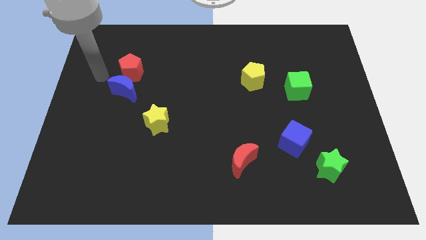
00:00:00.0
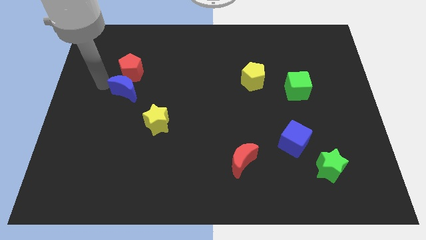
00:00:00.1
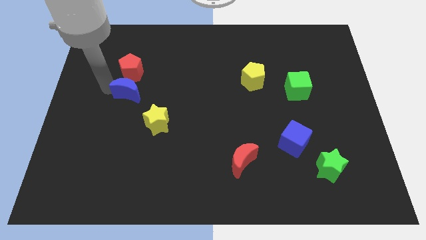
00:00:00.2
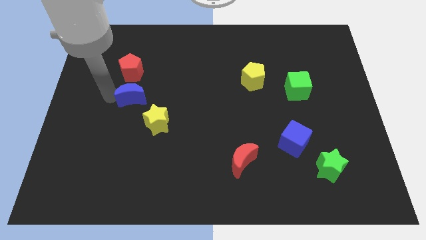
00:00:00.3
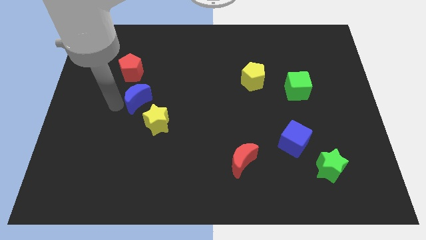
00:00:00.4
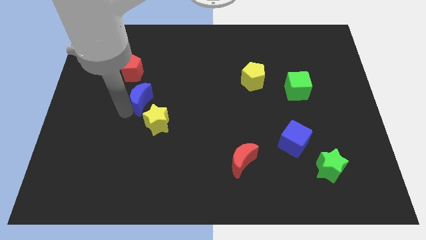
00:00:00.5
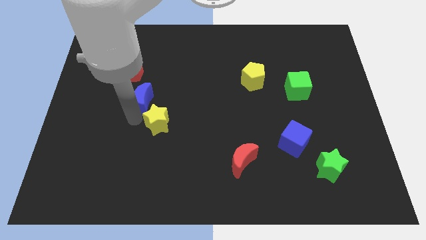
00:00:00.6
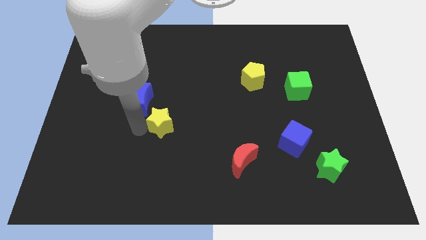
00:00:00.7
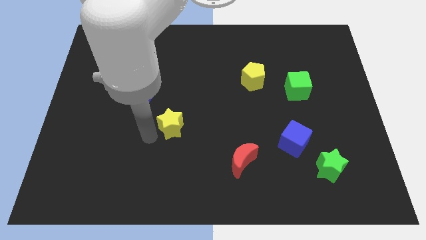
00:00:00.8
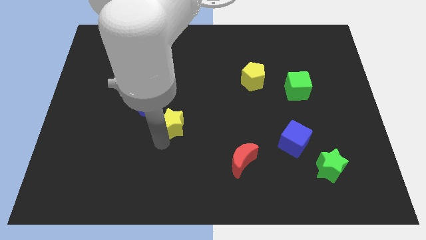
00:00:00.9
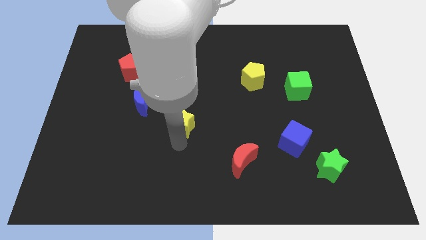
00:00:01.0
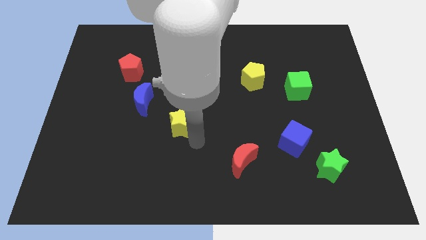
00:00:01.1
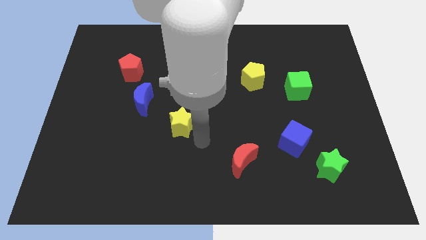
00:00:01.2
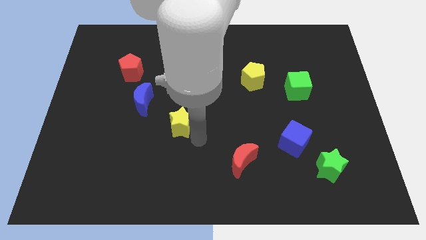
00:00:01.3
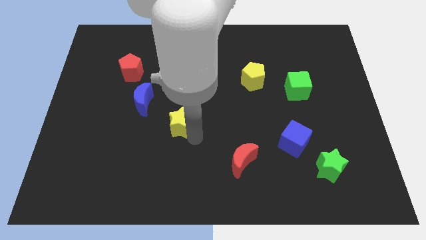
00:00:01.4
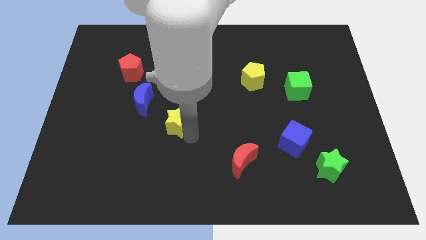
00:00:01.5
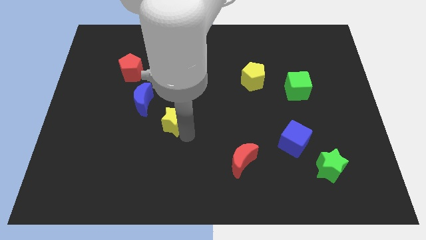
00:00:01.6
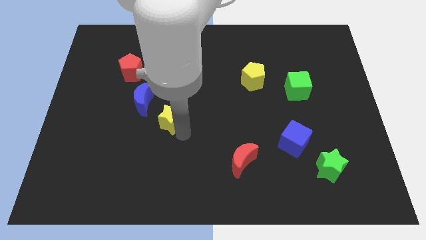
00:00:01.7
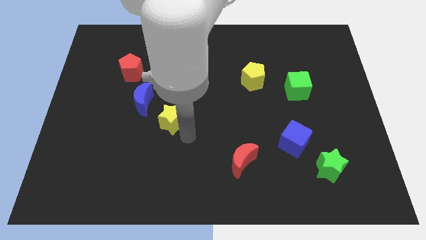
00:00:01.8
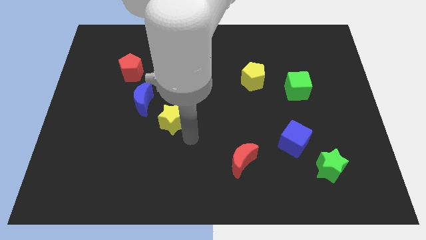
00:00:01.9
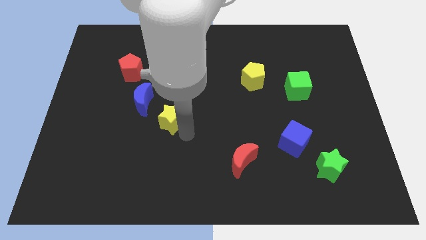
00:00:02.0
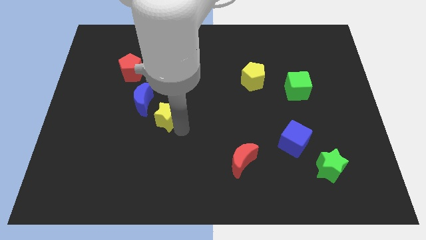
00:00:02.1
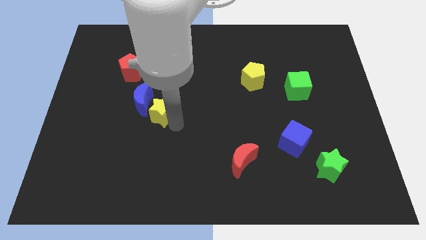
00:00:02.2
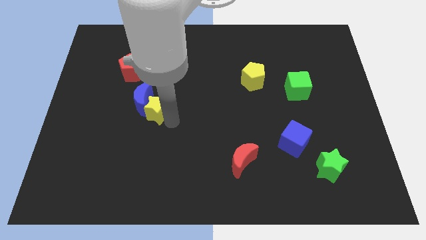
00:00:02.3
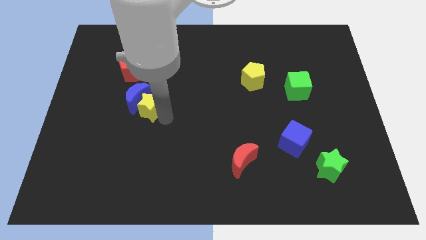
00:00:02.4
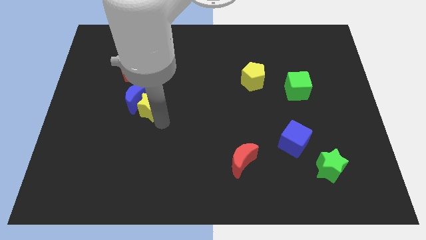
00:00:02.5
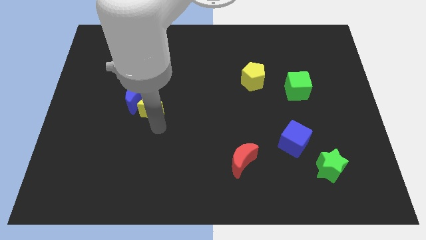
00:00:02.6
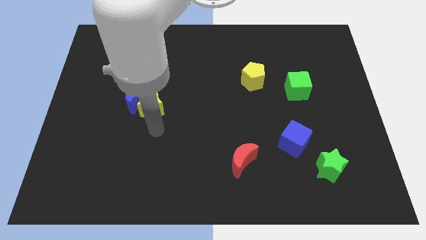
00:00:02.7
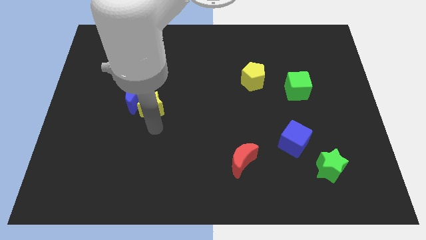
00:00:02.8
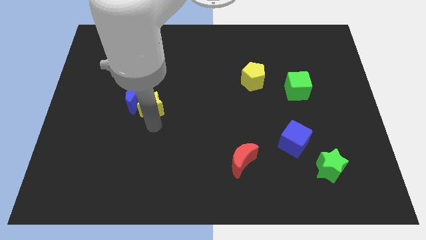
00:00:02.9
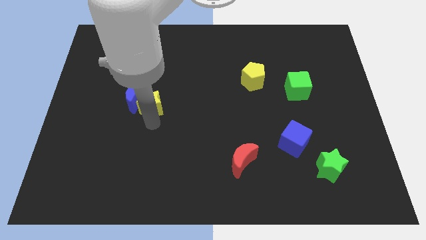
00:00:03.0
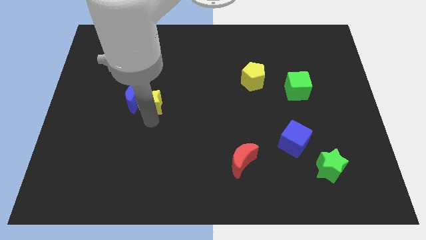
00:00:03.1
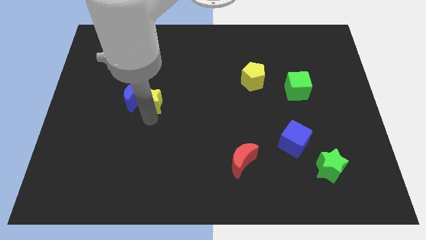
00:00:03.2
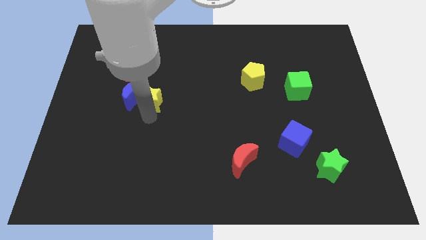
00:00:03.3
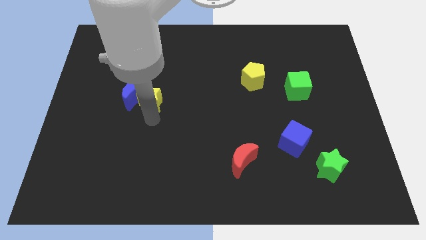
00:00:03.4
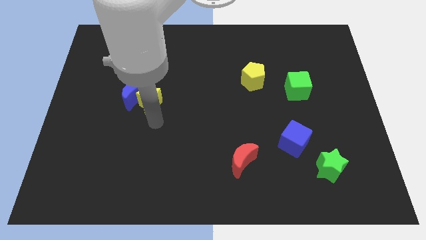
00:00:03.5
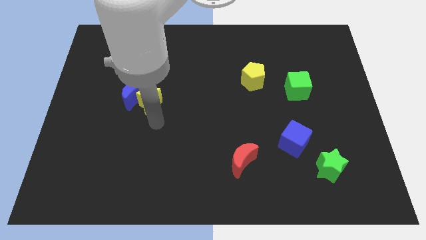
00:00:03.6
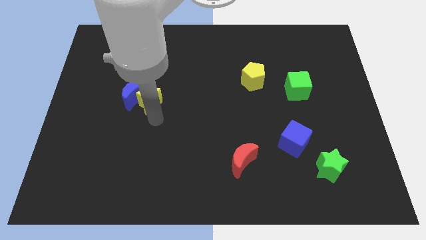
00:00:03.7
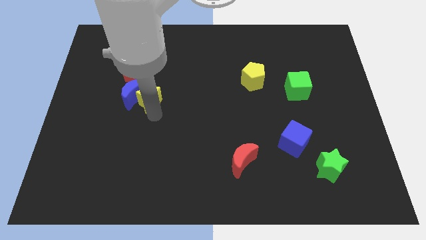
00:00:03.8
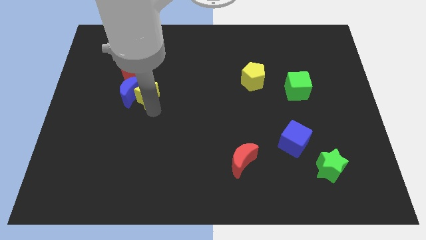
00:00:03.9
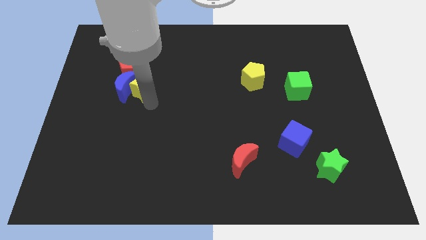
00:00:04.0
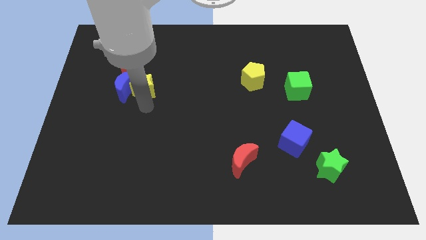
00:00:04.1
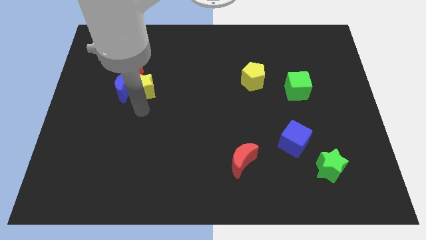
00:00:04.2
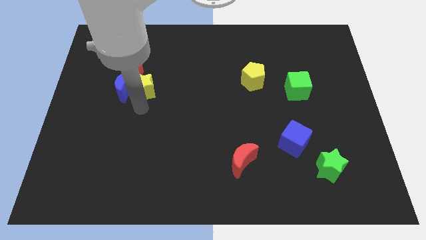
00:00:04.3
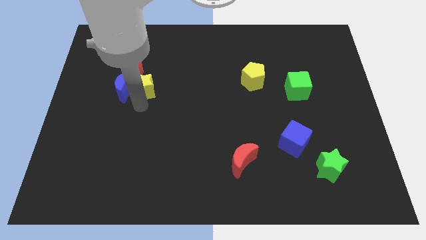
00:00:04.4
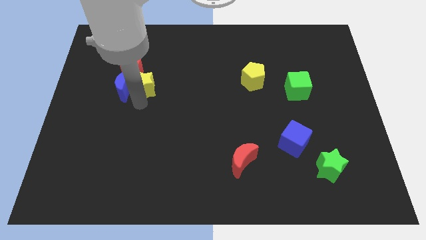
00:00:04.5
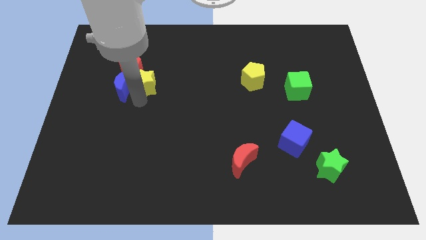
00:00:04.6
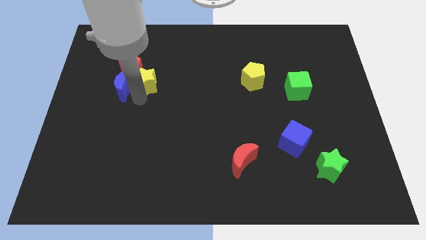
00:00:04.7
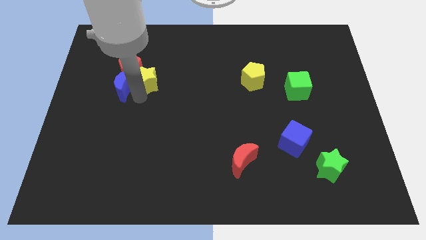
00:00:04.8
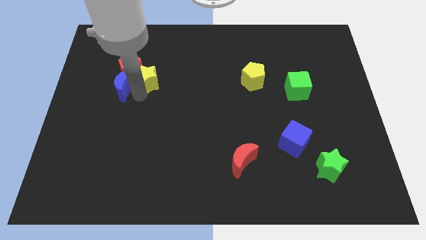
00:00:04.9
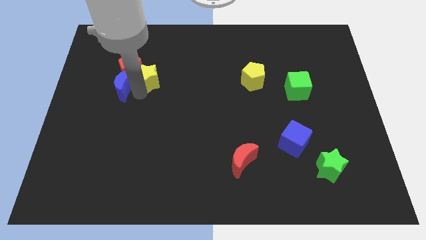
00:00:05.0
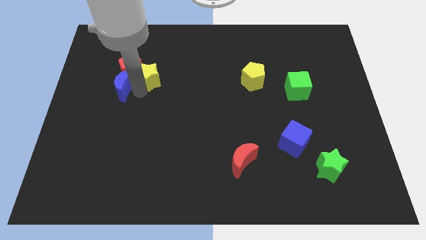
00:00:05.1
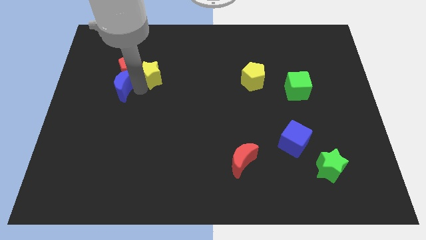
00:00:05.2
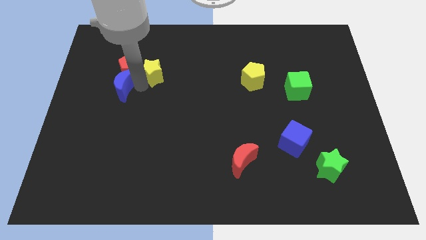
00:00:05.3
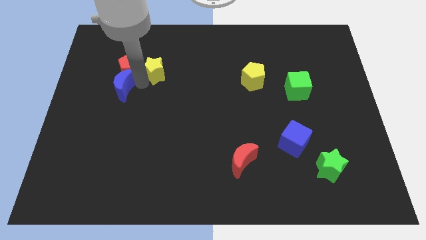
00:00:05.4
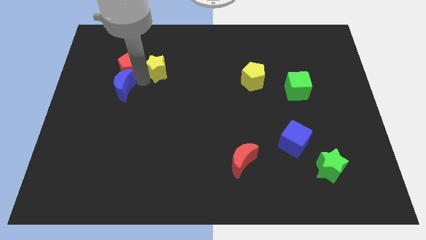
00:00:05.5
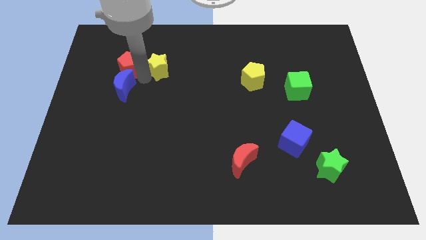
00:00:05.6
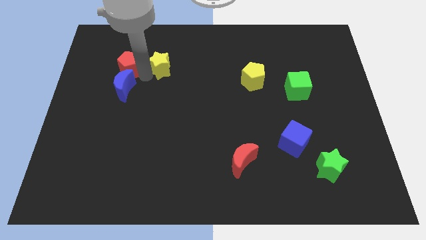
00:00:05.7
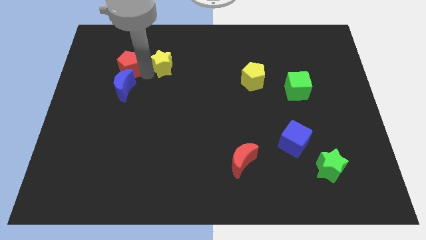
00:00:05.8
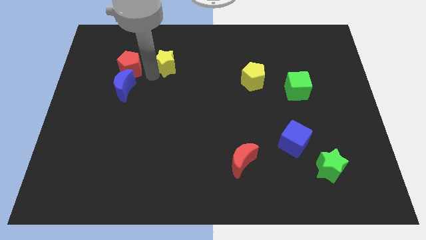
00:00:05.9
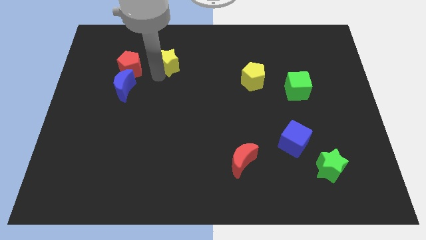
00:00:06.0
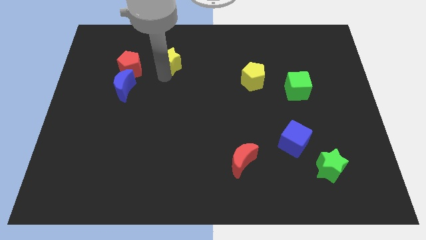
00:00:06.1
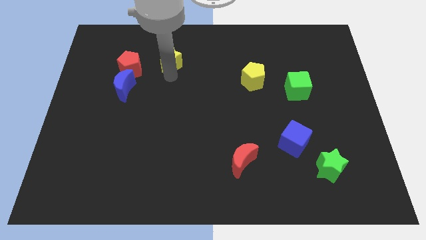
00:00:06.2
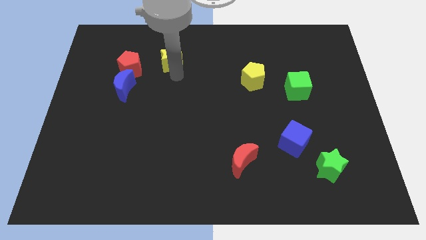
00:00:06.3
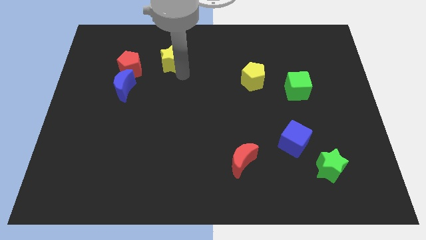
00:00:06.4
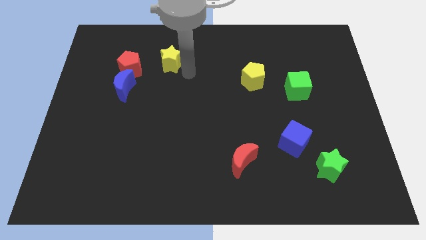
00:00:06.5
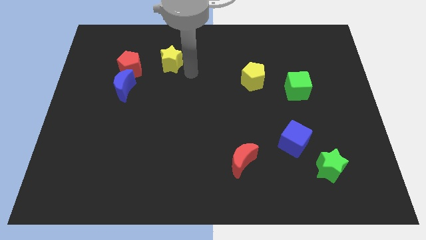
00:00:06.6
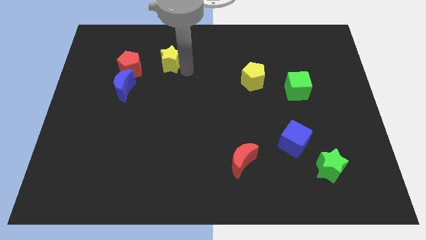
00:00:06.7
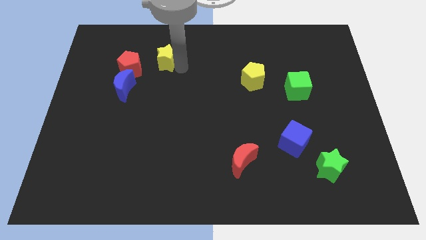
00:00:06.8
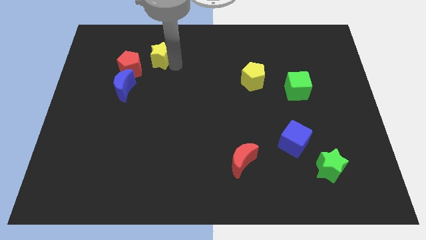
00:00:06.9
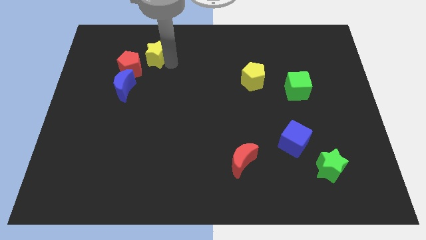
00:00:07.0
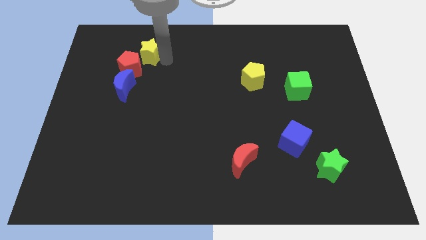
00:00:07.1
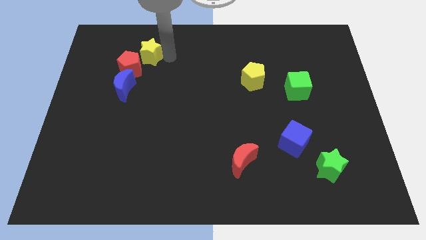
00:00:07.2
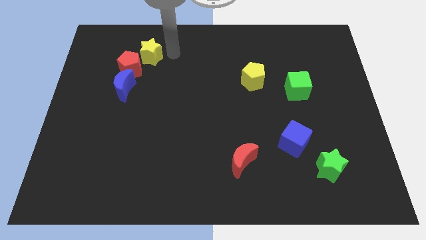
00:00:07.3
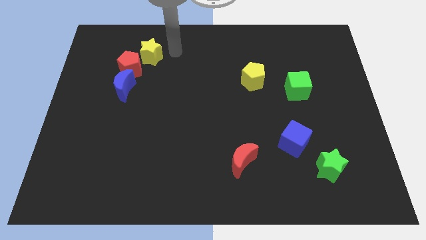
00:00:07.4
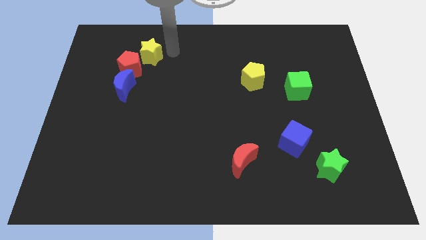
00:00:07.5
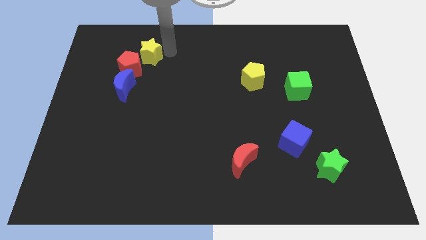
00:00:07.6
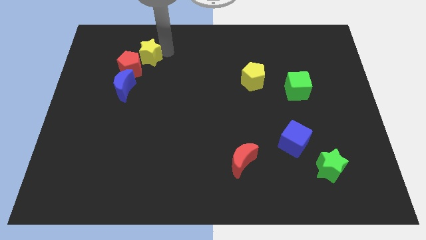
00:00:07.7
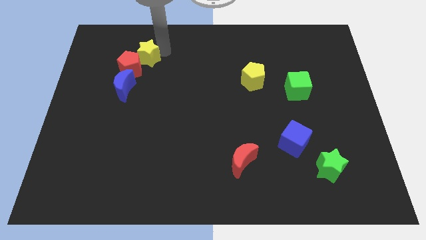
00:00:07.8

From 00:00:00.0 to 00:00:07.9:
move the yellow star to the top side of the blue moon
